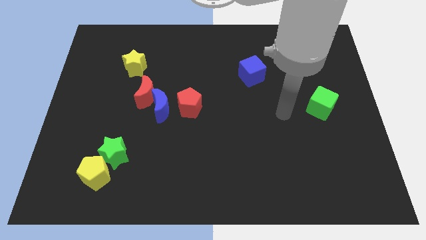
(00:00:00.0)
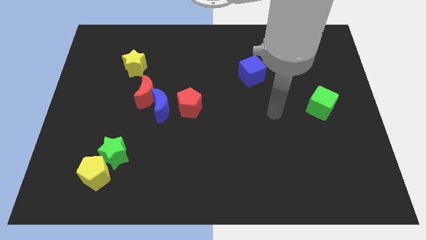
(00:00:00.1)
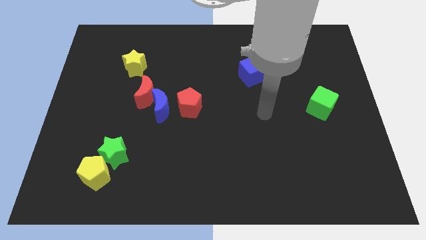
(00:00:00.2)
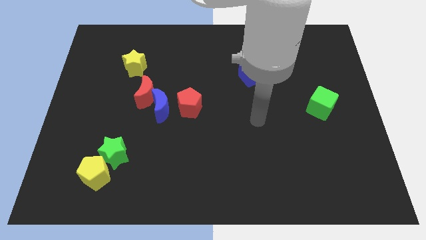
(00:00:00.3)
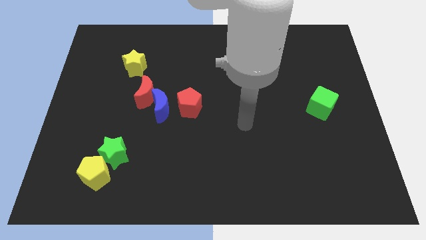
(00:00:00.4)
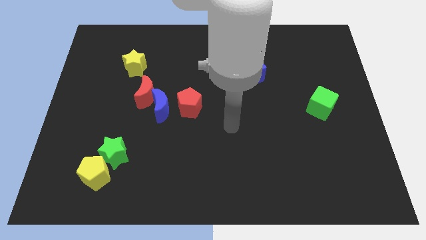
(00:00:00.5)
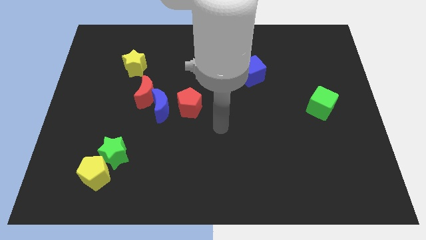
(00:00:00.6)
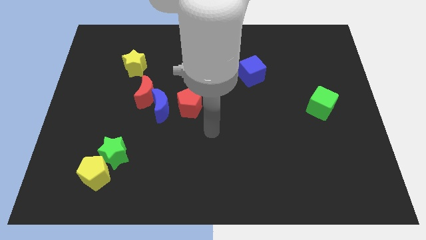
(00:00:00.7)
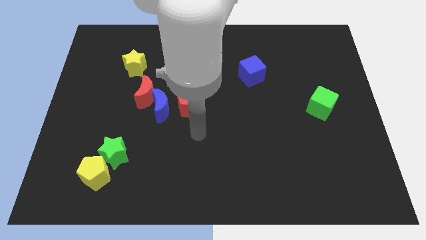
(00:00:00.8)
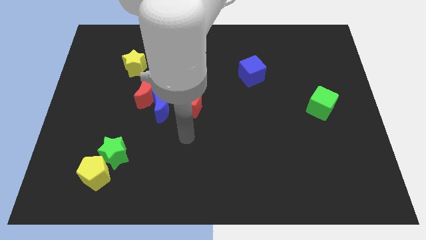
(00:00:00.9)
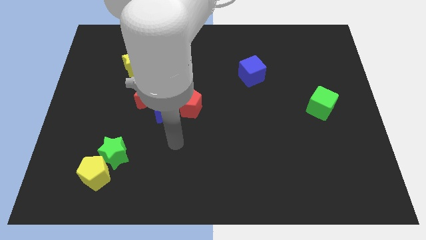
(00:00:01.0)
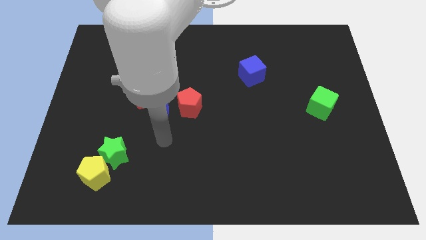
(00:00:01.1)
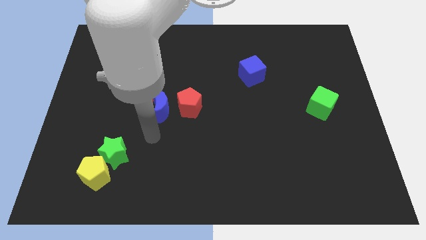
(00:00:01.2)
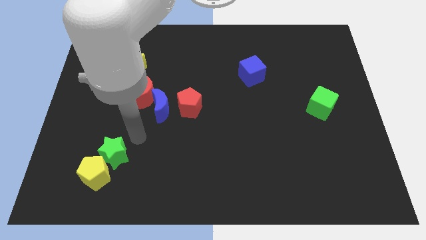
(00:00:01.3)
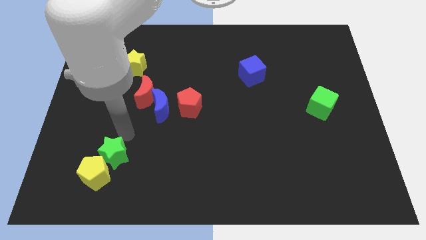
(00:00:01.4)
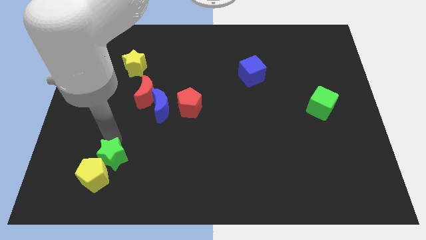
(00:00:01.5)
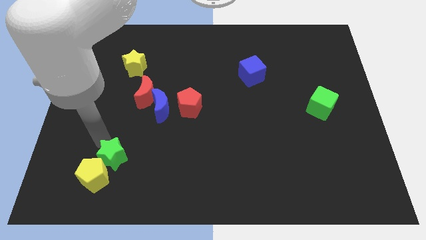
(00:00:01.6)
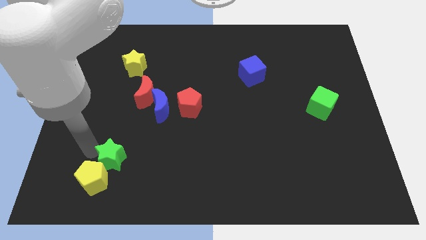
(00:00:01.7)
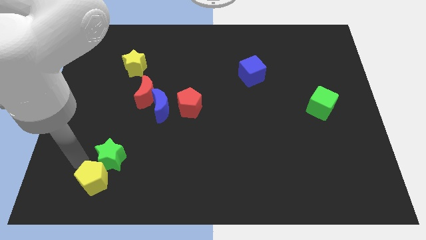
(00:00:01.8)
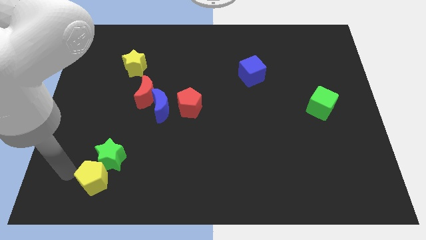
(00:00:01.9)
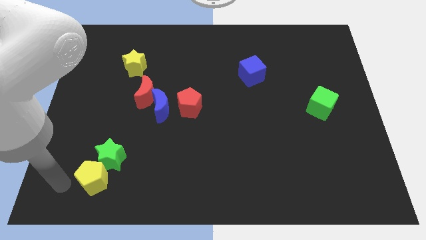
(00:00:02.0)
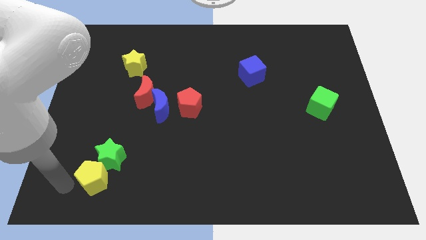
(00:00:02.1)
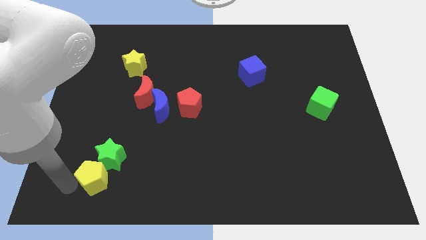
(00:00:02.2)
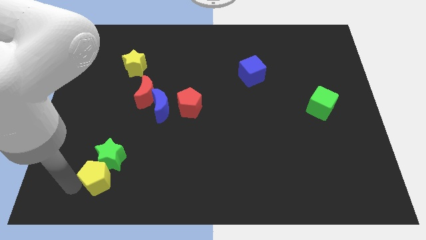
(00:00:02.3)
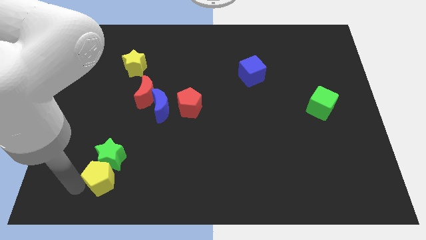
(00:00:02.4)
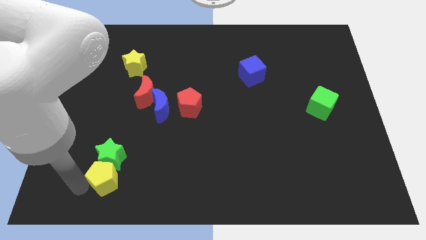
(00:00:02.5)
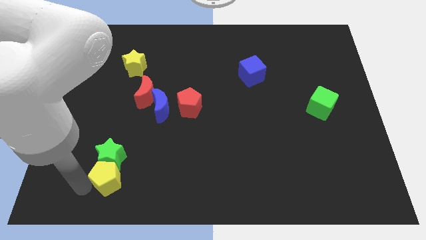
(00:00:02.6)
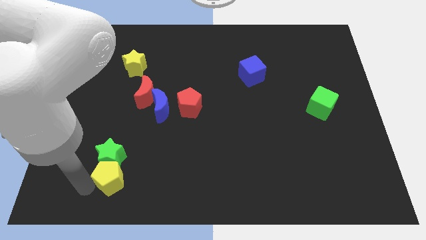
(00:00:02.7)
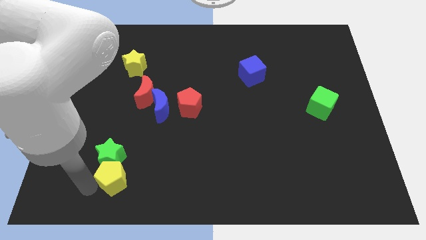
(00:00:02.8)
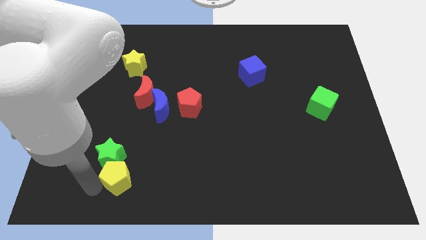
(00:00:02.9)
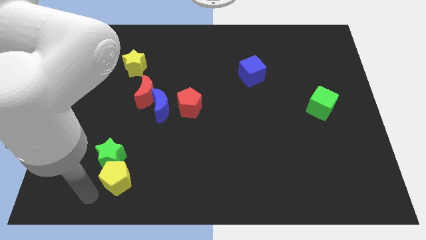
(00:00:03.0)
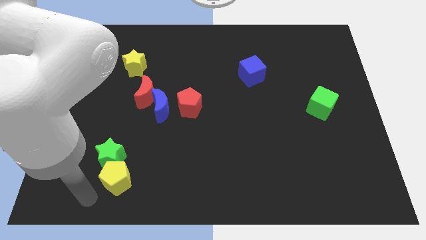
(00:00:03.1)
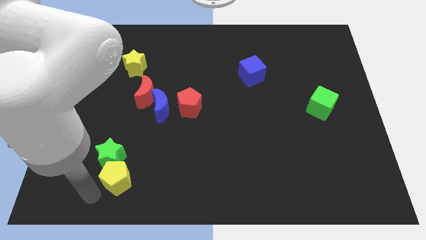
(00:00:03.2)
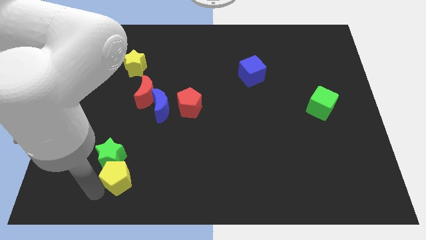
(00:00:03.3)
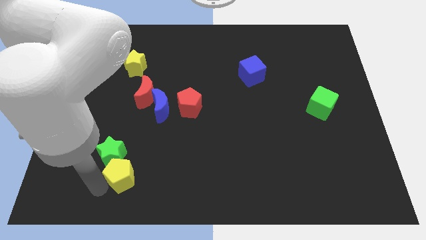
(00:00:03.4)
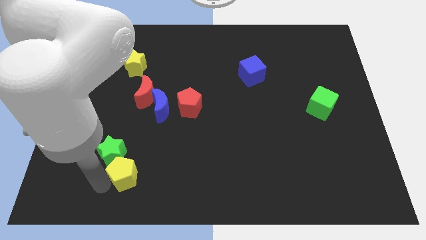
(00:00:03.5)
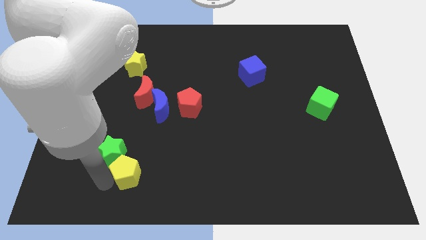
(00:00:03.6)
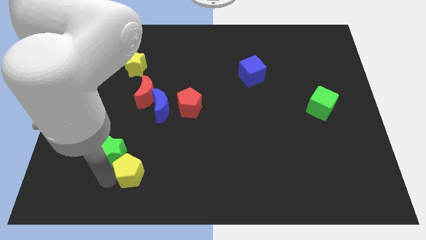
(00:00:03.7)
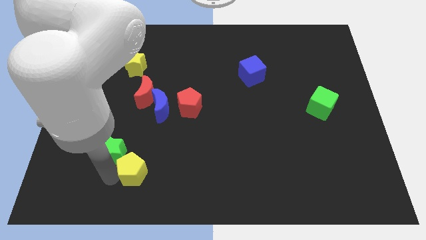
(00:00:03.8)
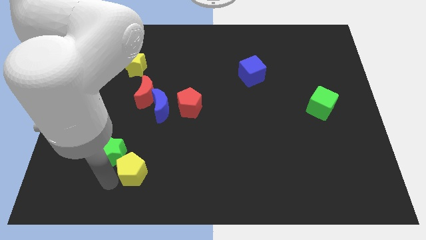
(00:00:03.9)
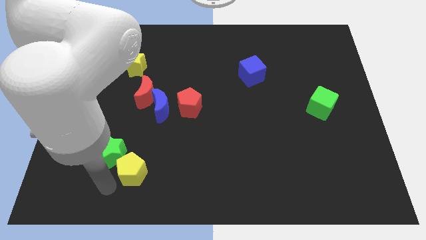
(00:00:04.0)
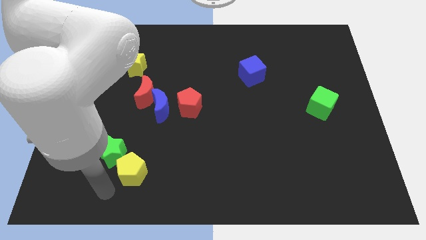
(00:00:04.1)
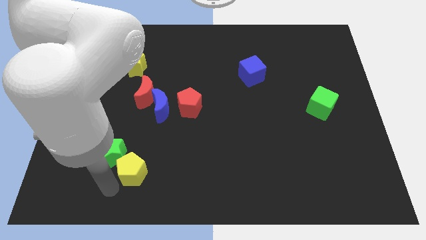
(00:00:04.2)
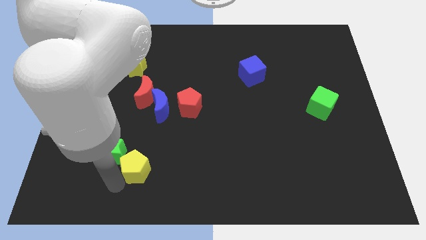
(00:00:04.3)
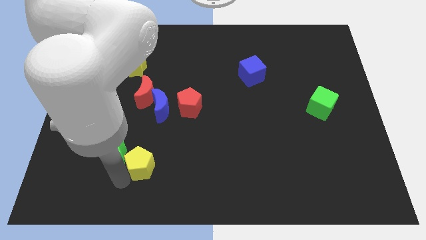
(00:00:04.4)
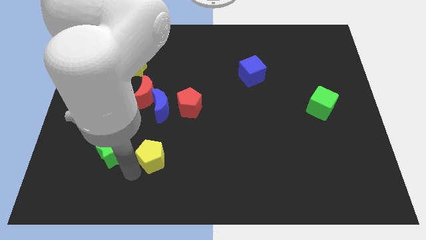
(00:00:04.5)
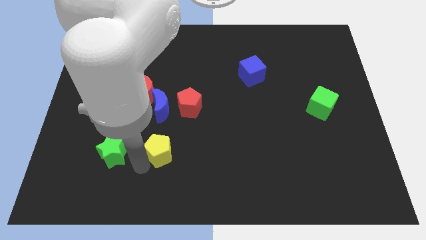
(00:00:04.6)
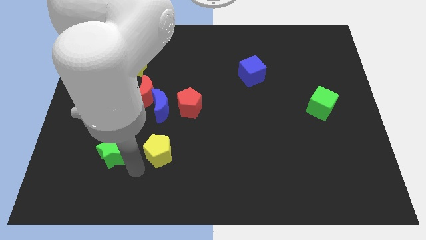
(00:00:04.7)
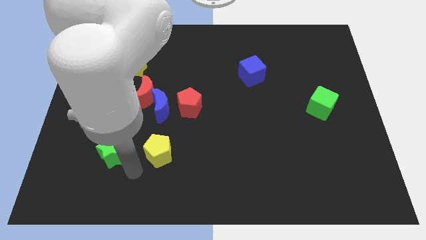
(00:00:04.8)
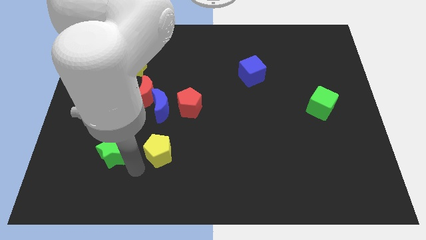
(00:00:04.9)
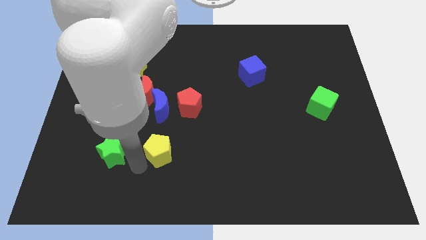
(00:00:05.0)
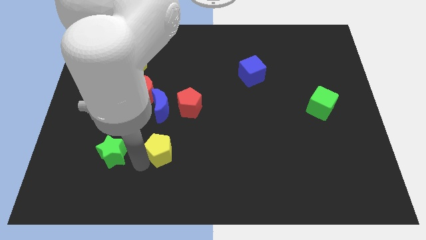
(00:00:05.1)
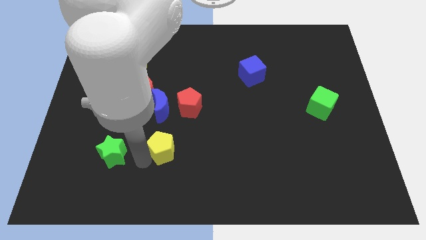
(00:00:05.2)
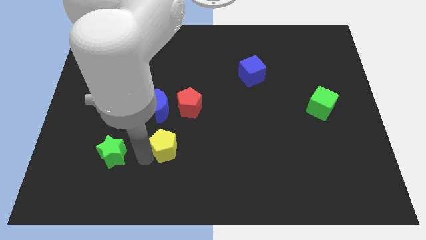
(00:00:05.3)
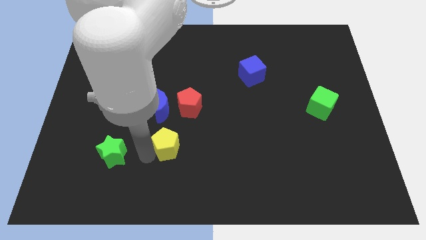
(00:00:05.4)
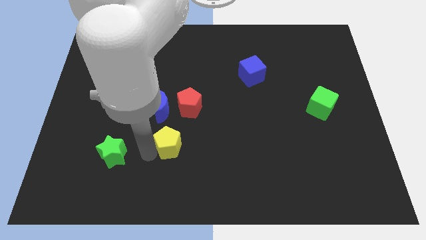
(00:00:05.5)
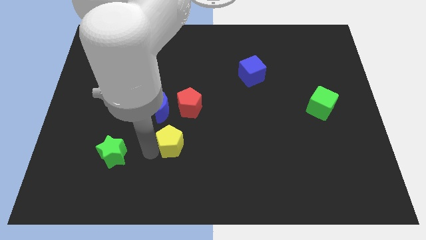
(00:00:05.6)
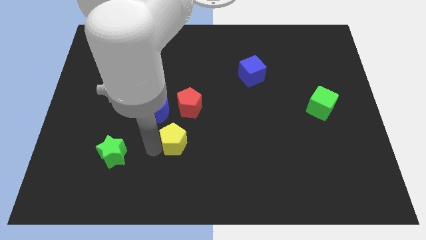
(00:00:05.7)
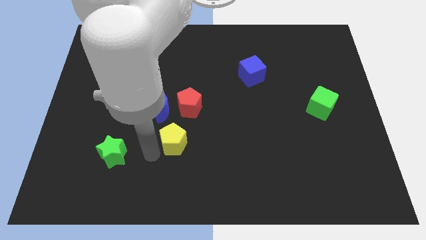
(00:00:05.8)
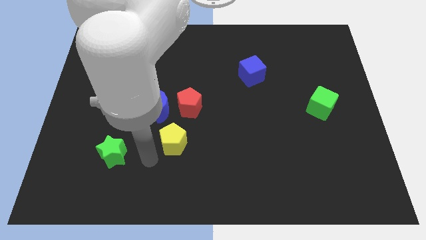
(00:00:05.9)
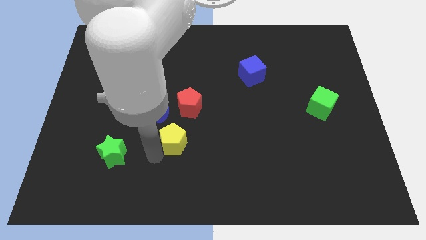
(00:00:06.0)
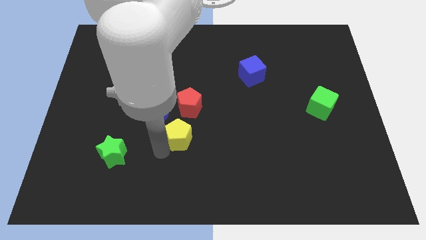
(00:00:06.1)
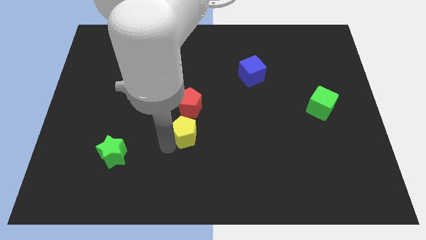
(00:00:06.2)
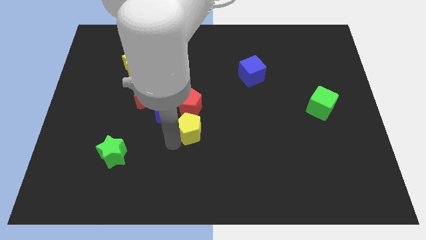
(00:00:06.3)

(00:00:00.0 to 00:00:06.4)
push the yellow pentagon up and then right

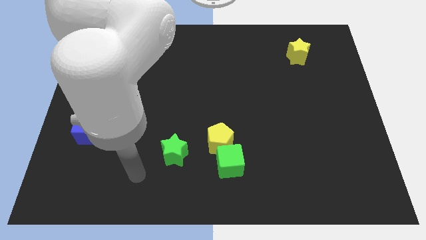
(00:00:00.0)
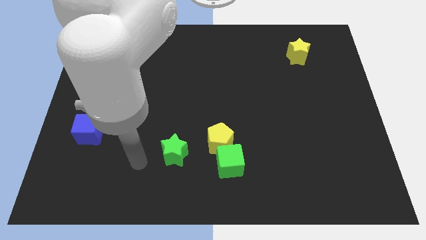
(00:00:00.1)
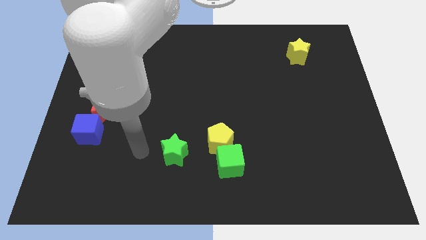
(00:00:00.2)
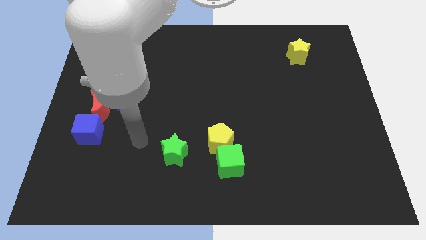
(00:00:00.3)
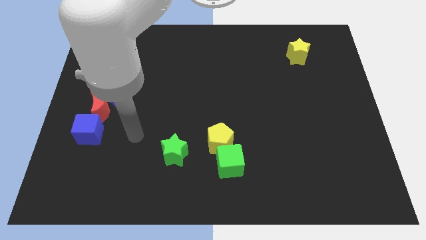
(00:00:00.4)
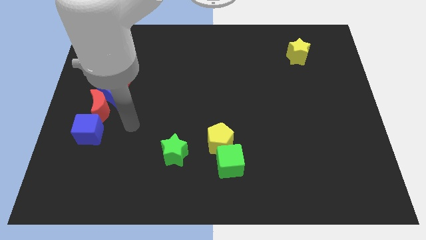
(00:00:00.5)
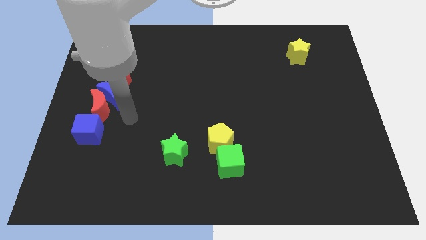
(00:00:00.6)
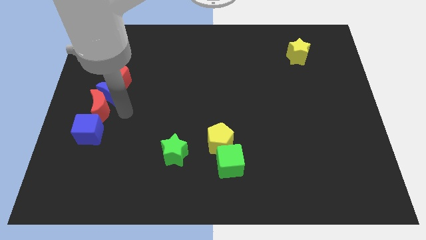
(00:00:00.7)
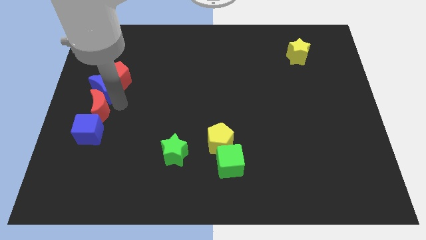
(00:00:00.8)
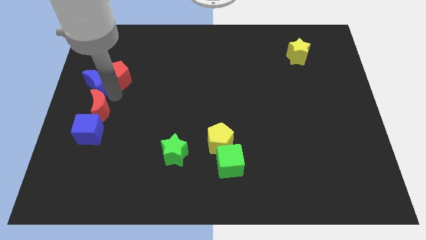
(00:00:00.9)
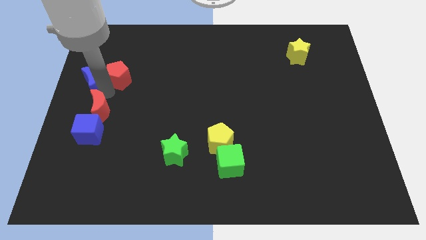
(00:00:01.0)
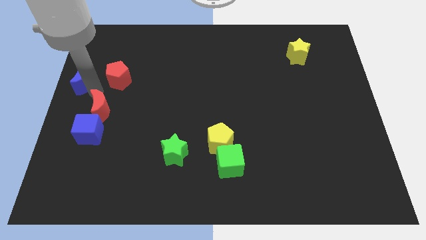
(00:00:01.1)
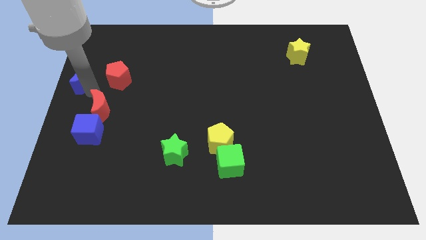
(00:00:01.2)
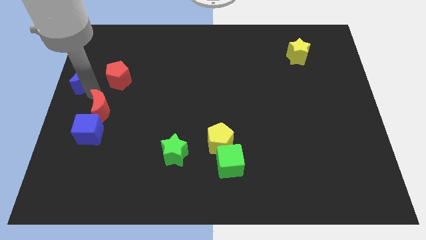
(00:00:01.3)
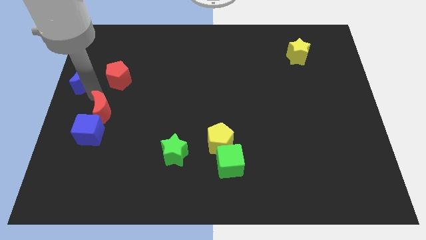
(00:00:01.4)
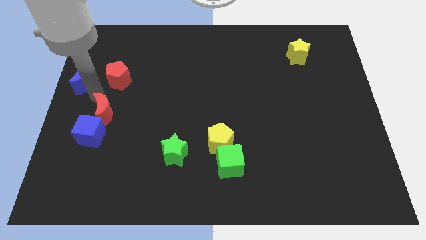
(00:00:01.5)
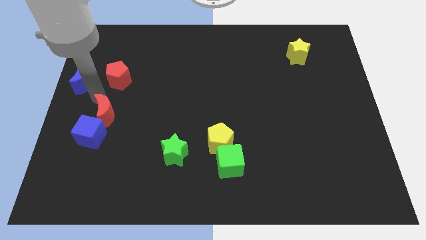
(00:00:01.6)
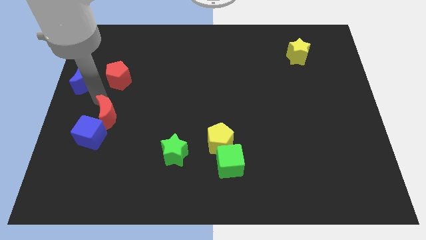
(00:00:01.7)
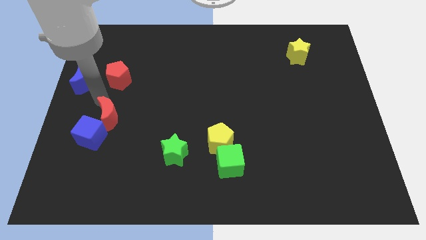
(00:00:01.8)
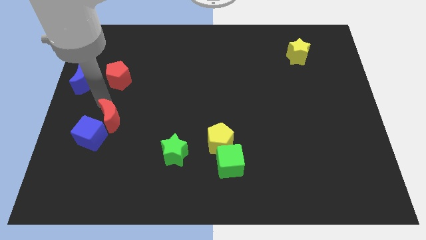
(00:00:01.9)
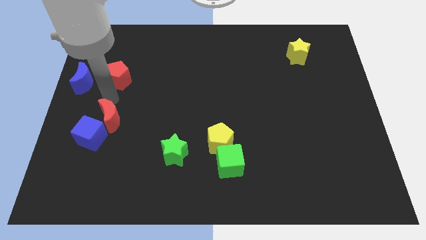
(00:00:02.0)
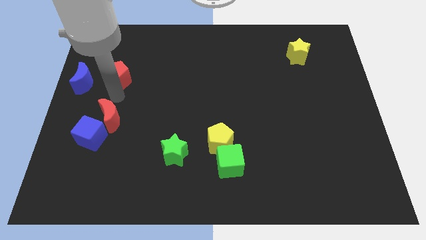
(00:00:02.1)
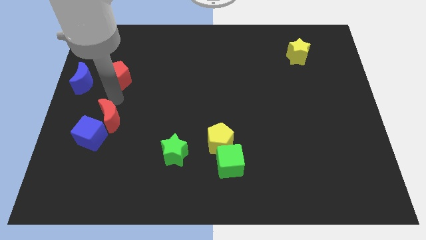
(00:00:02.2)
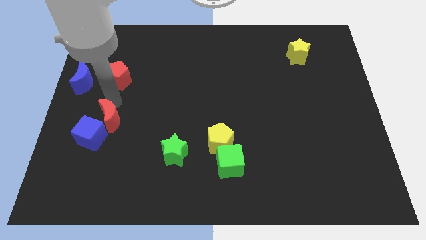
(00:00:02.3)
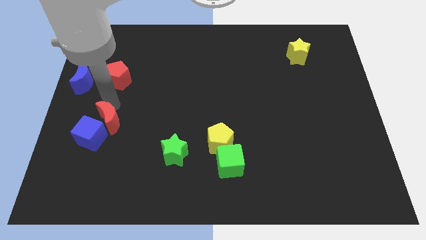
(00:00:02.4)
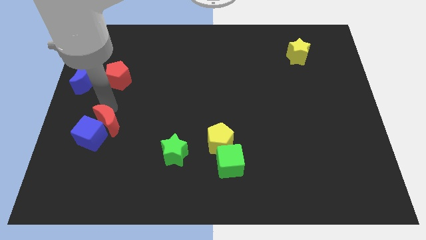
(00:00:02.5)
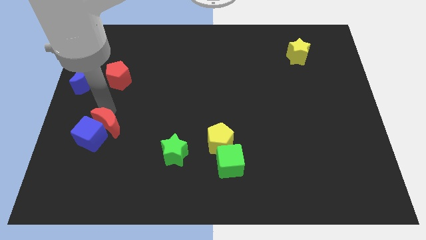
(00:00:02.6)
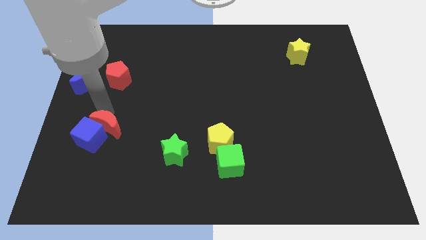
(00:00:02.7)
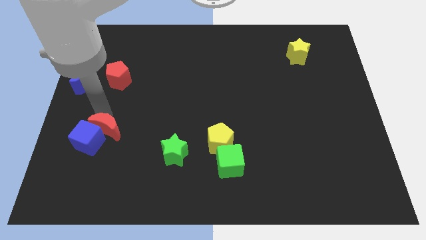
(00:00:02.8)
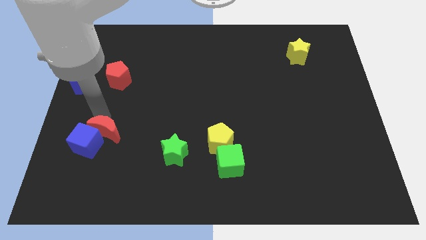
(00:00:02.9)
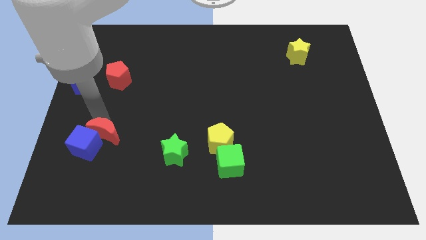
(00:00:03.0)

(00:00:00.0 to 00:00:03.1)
slightly slide the red moon downwards
